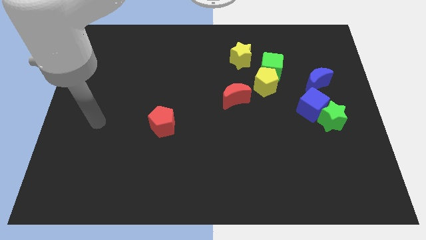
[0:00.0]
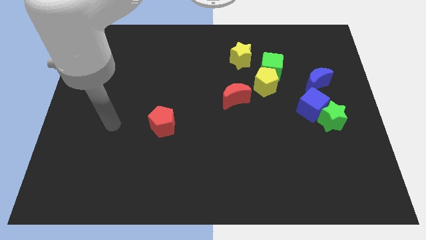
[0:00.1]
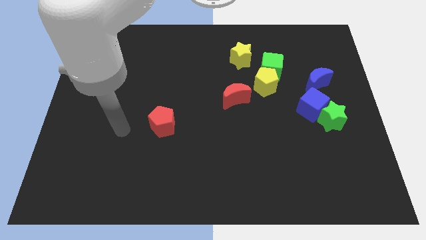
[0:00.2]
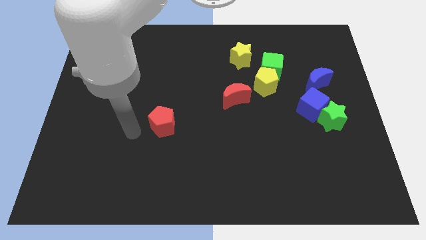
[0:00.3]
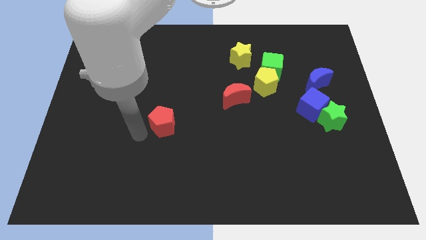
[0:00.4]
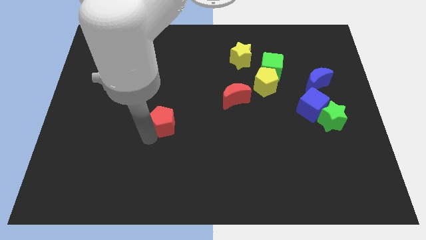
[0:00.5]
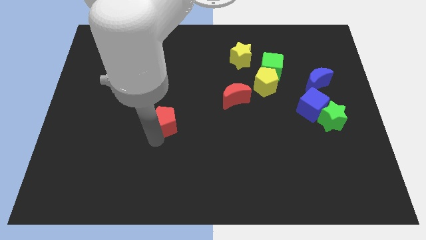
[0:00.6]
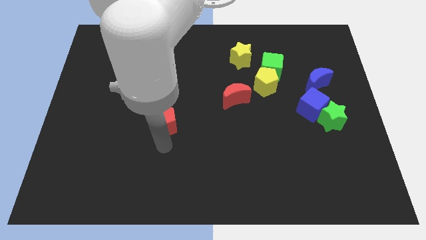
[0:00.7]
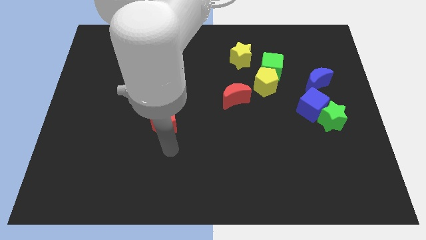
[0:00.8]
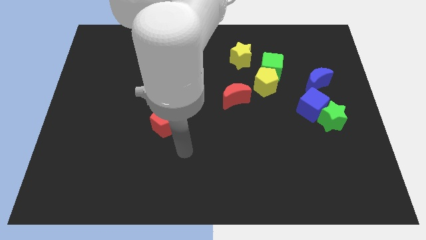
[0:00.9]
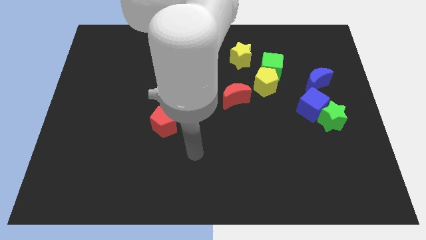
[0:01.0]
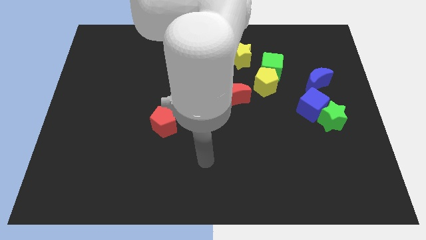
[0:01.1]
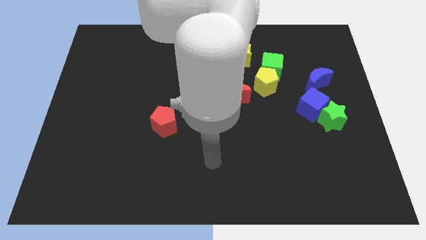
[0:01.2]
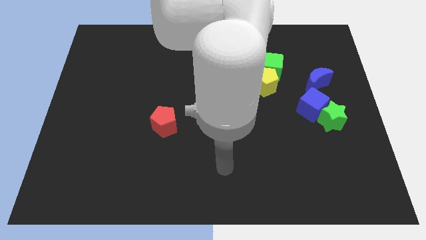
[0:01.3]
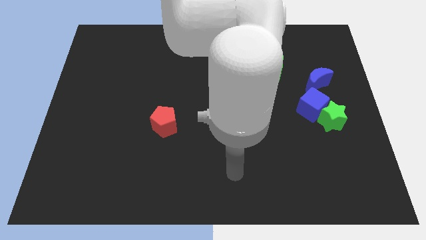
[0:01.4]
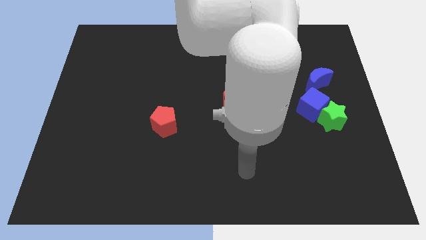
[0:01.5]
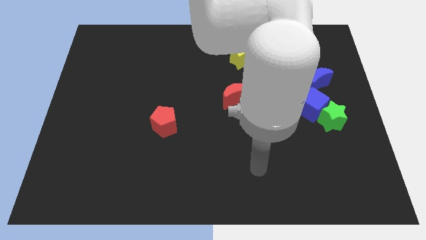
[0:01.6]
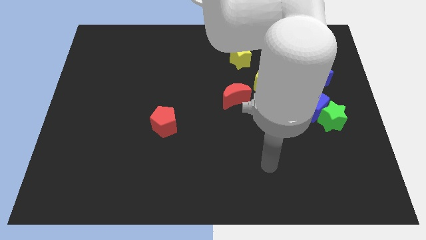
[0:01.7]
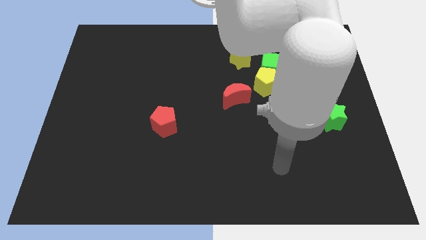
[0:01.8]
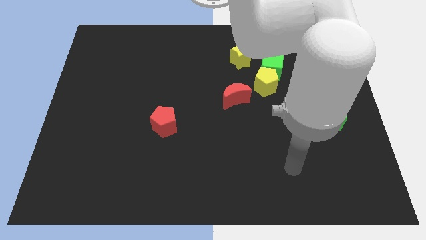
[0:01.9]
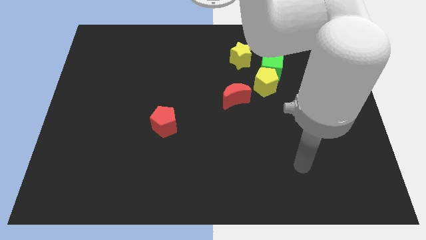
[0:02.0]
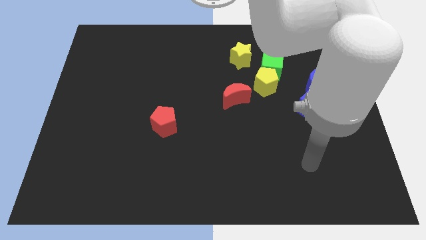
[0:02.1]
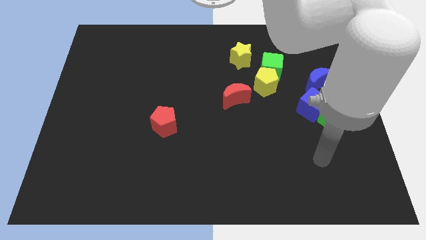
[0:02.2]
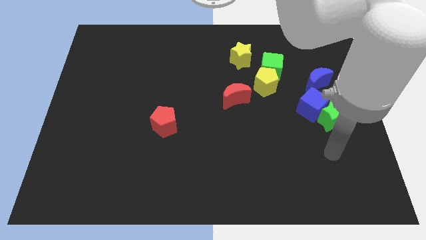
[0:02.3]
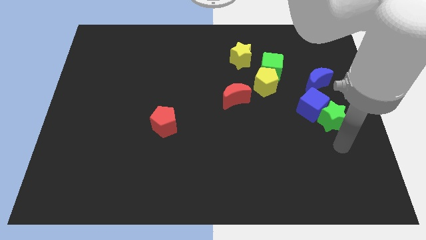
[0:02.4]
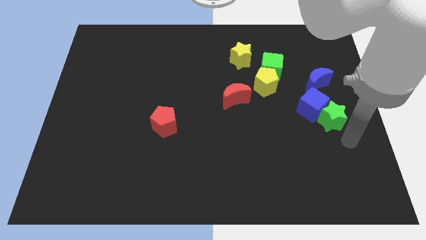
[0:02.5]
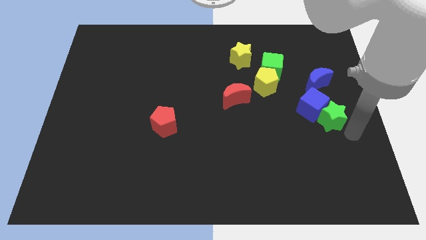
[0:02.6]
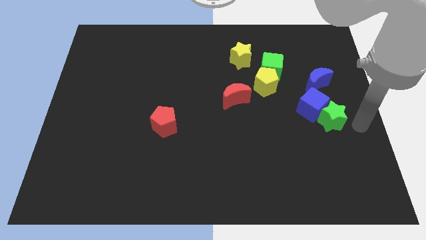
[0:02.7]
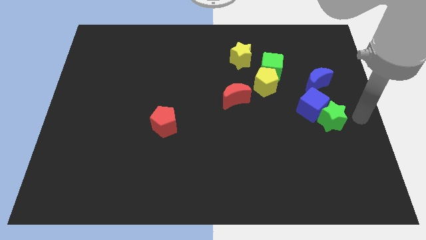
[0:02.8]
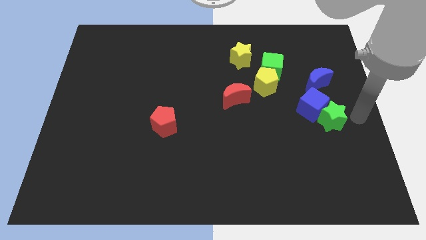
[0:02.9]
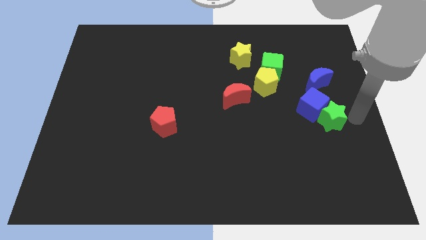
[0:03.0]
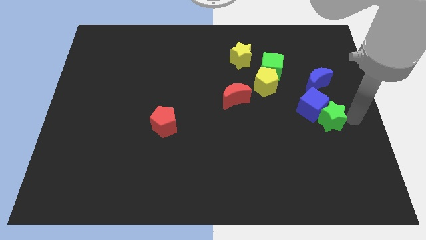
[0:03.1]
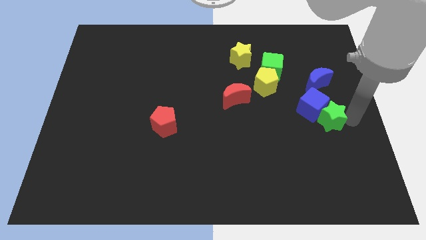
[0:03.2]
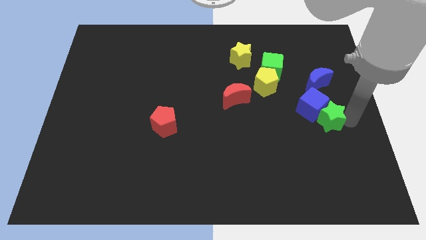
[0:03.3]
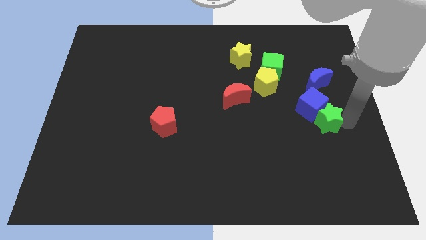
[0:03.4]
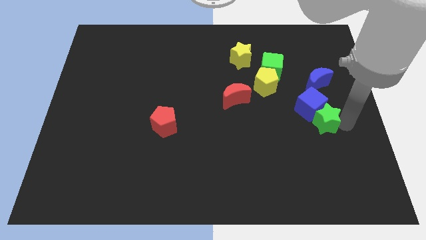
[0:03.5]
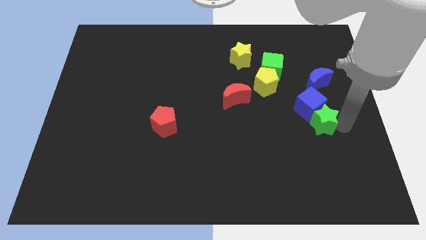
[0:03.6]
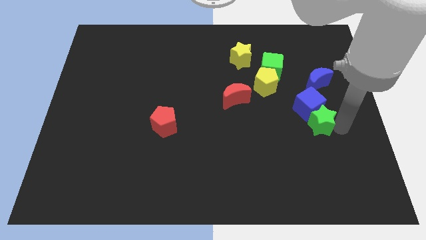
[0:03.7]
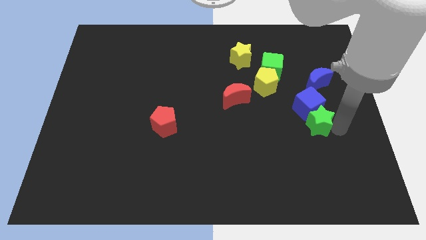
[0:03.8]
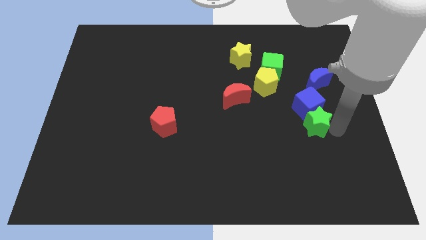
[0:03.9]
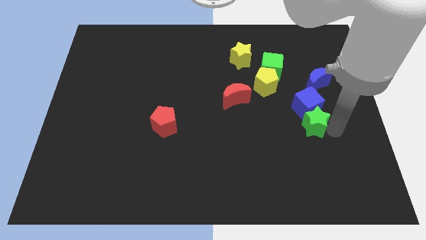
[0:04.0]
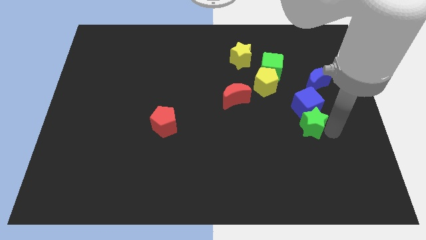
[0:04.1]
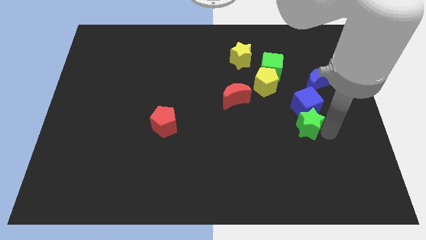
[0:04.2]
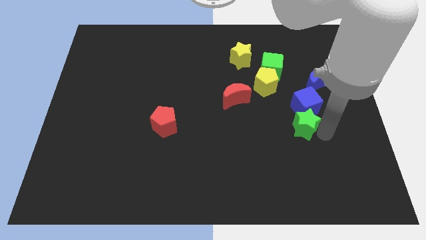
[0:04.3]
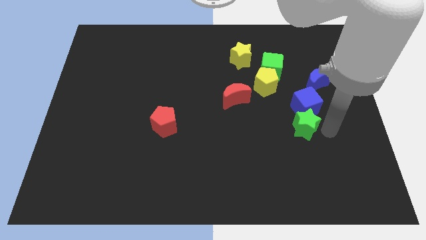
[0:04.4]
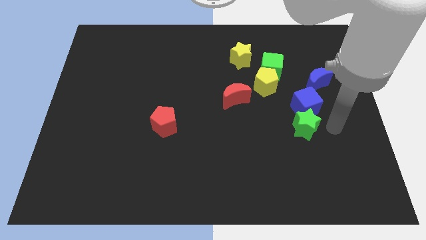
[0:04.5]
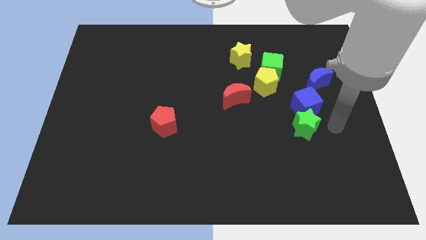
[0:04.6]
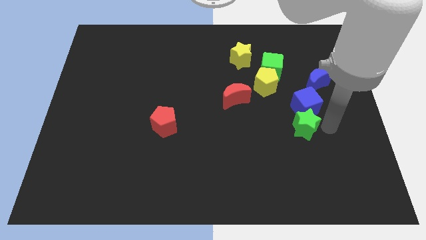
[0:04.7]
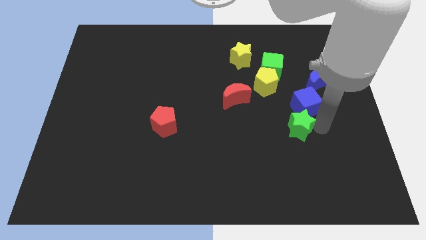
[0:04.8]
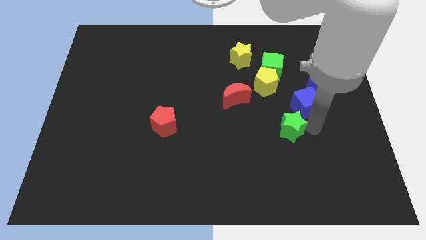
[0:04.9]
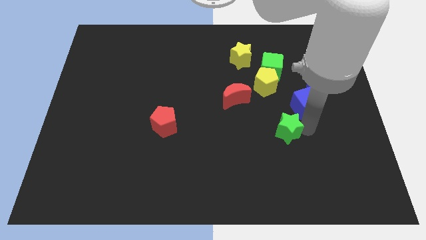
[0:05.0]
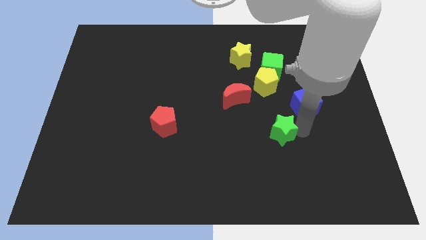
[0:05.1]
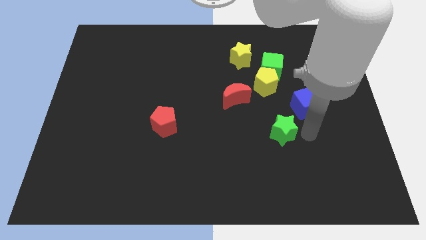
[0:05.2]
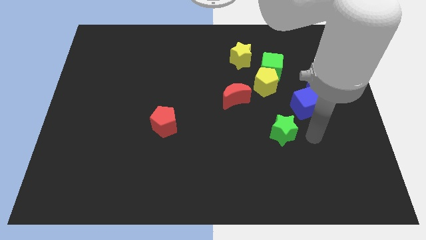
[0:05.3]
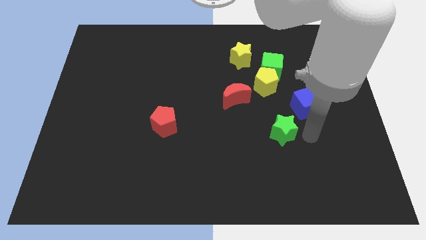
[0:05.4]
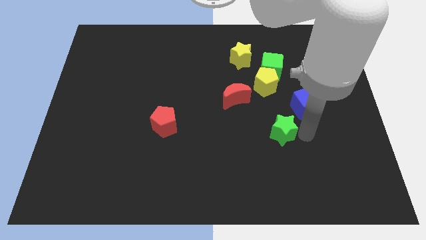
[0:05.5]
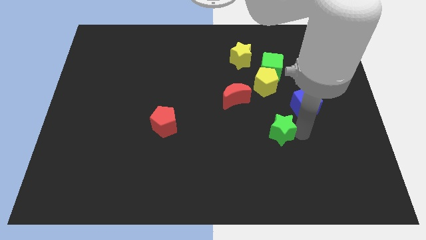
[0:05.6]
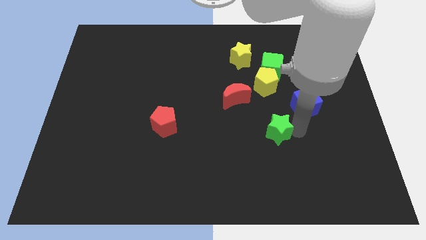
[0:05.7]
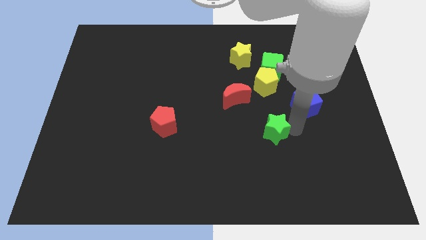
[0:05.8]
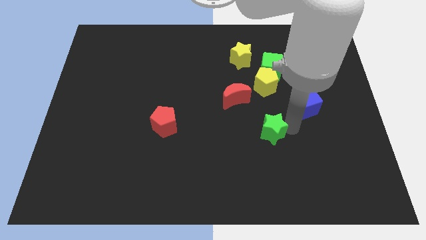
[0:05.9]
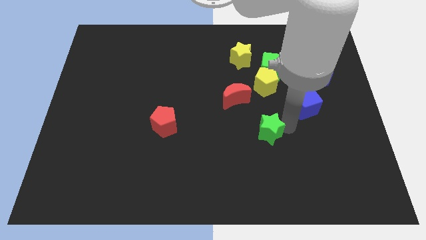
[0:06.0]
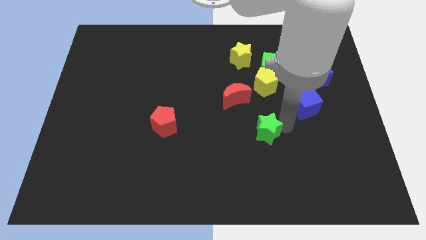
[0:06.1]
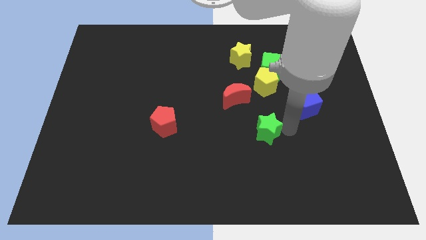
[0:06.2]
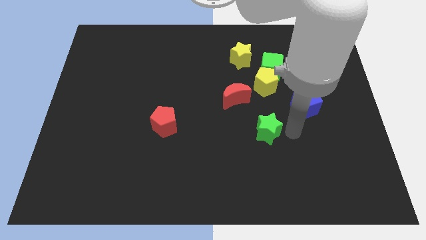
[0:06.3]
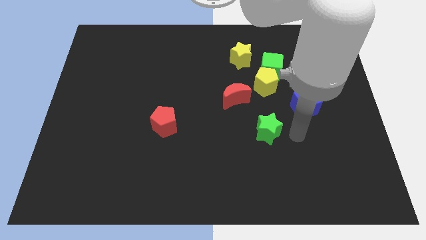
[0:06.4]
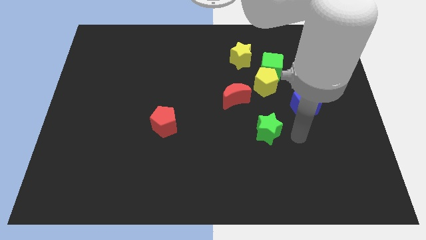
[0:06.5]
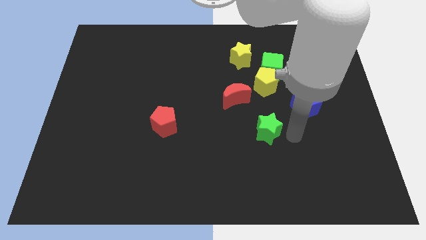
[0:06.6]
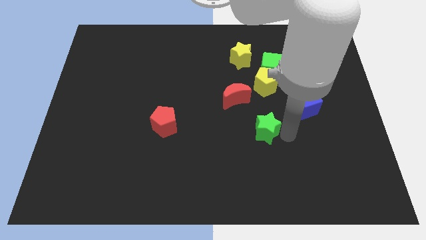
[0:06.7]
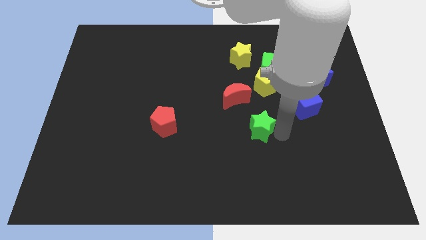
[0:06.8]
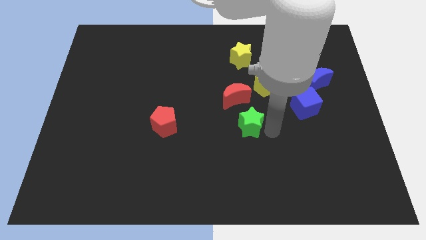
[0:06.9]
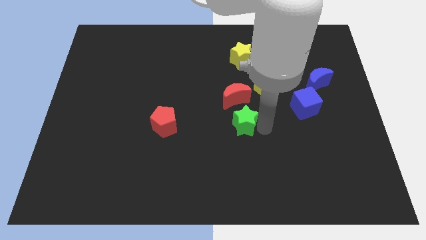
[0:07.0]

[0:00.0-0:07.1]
slide the green star left

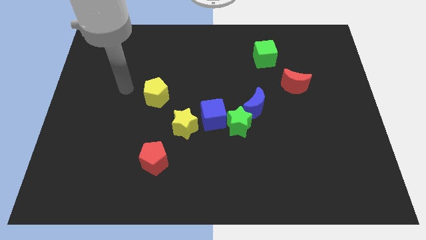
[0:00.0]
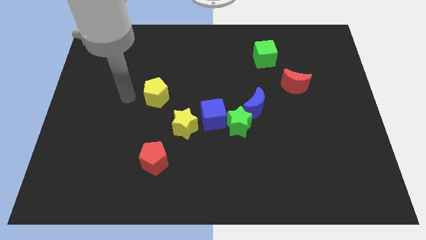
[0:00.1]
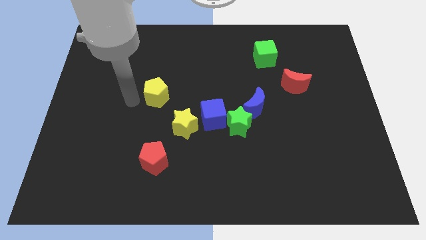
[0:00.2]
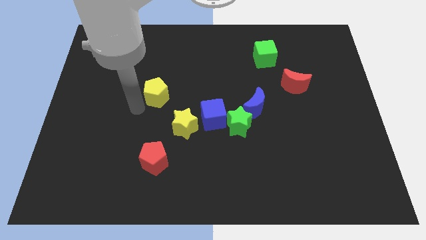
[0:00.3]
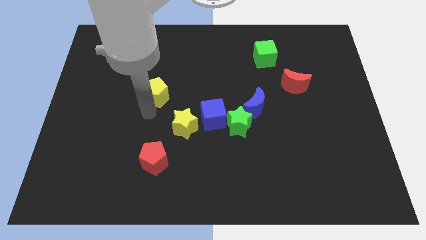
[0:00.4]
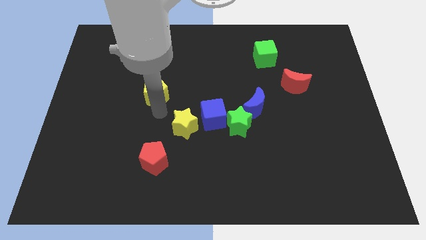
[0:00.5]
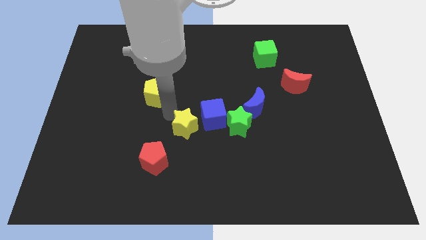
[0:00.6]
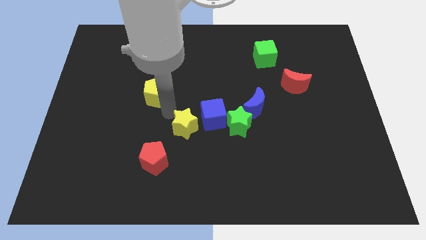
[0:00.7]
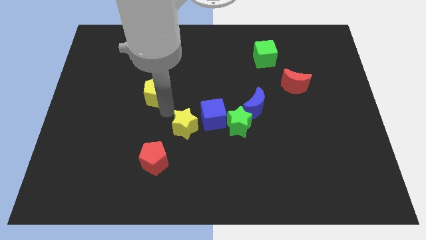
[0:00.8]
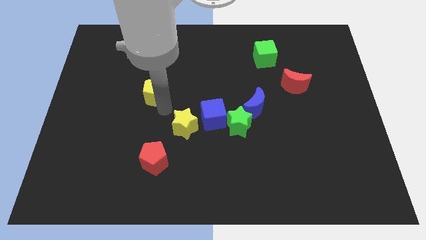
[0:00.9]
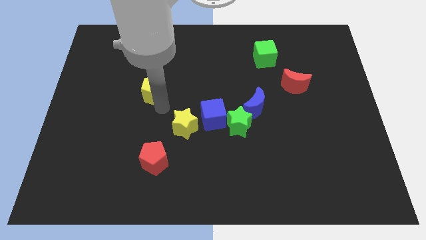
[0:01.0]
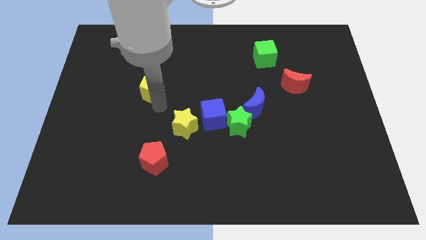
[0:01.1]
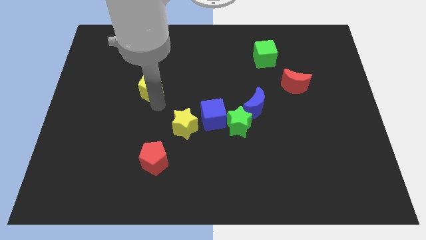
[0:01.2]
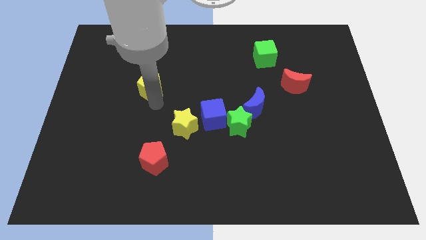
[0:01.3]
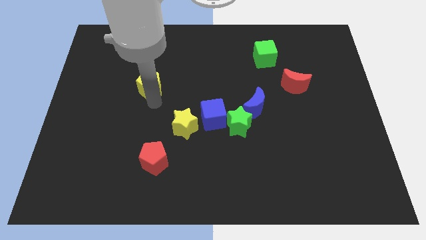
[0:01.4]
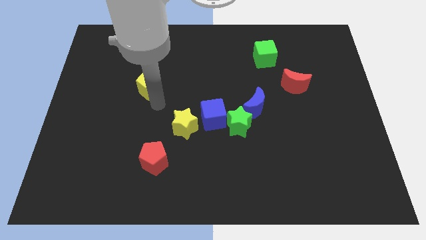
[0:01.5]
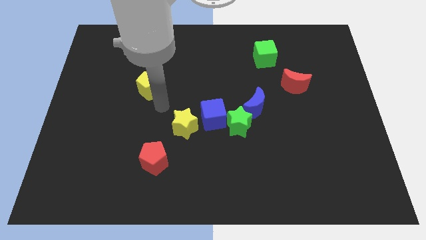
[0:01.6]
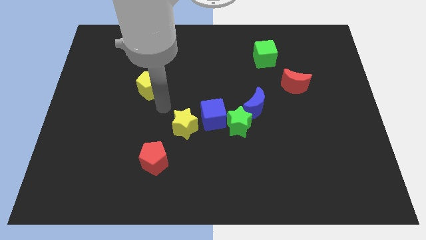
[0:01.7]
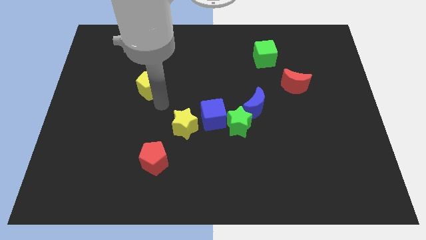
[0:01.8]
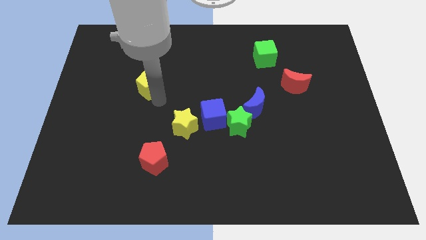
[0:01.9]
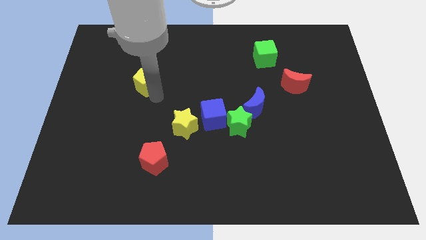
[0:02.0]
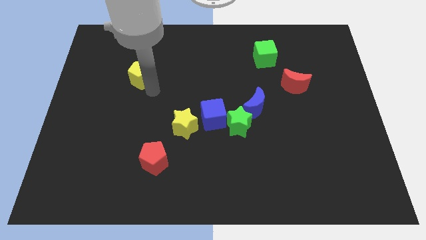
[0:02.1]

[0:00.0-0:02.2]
push the yellow pentagon slightly up and to the left diagonally
